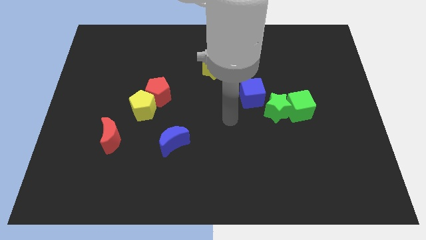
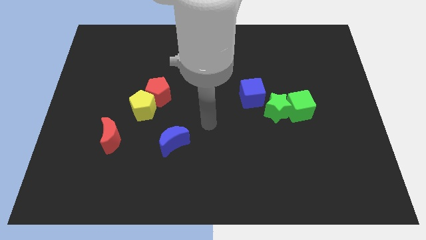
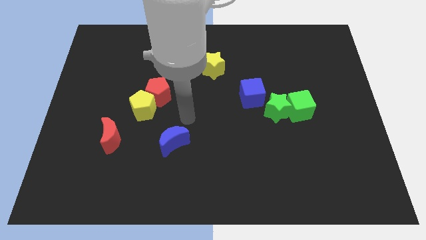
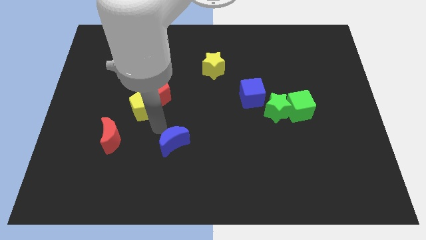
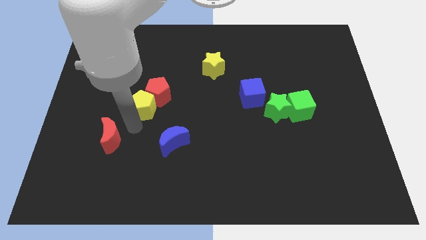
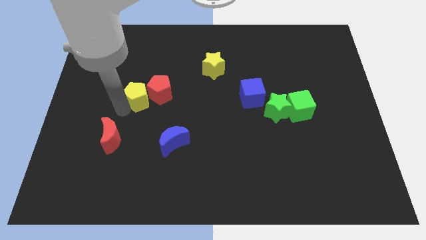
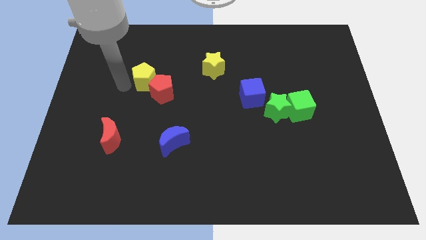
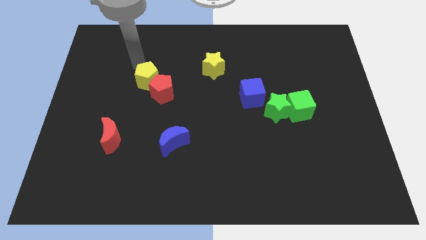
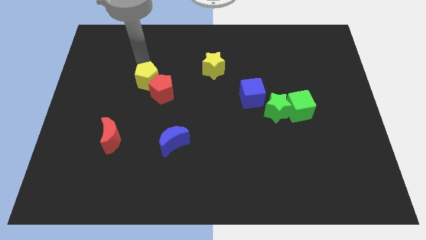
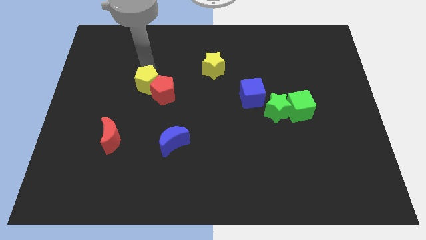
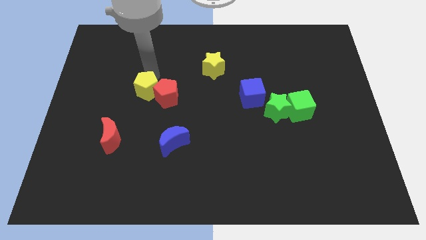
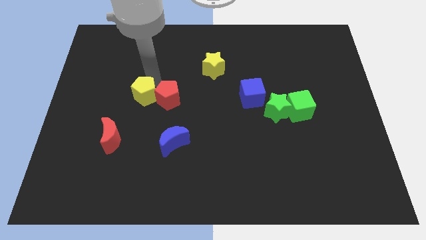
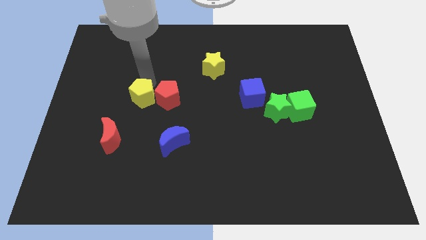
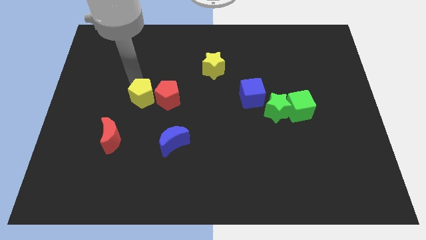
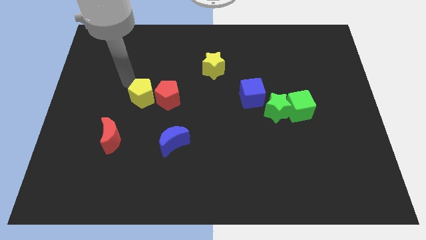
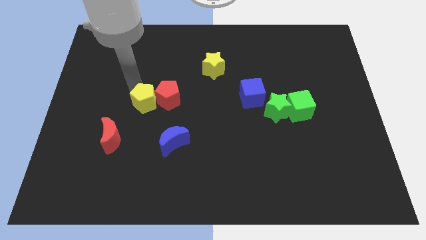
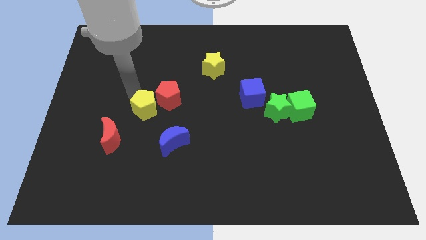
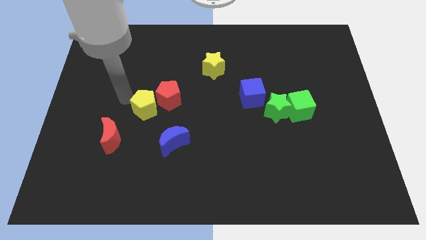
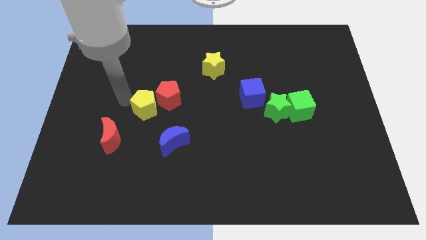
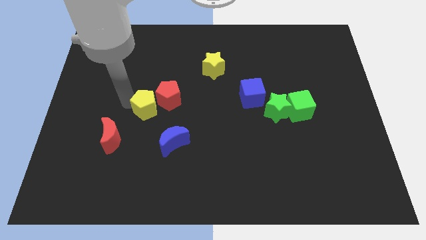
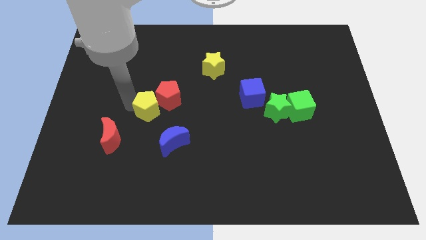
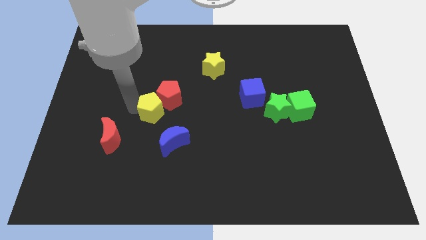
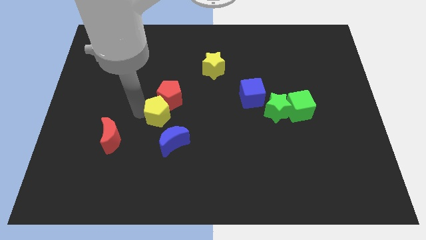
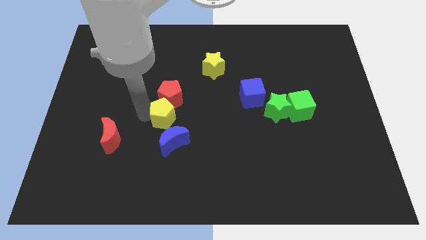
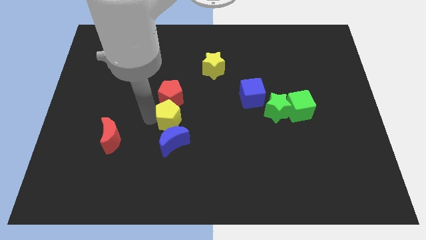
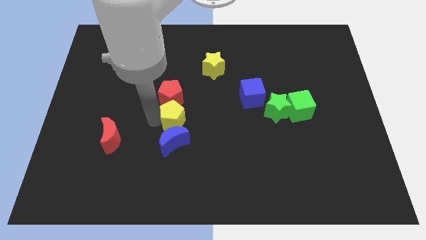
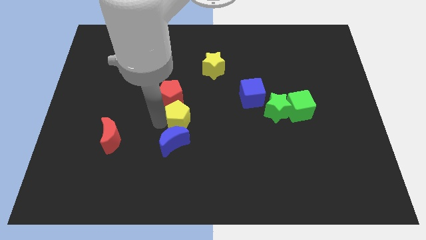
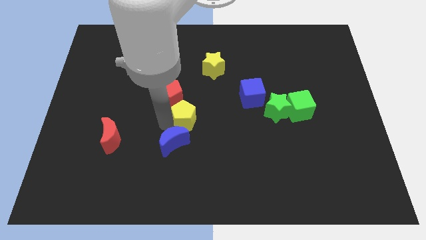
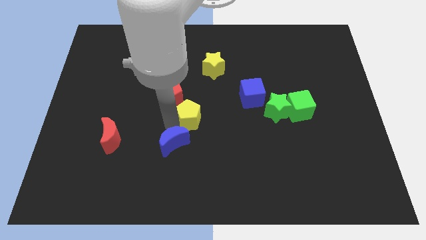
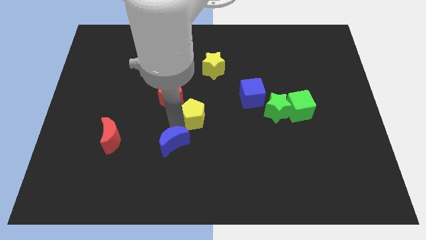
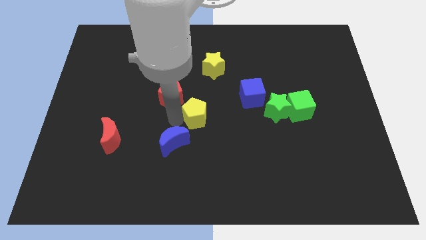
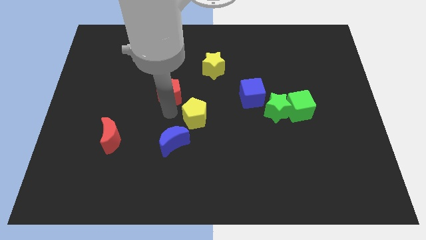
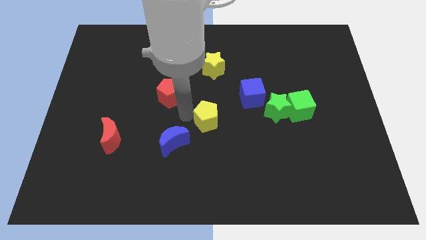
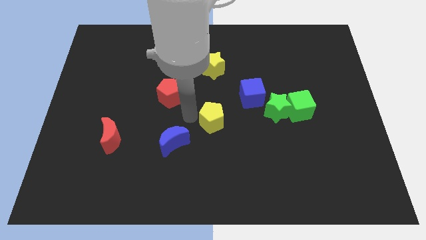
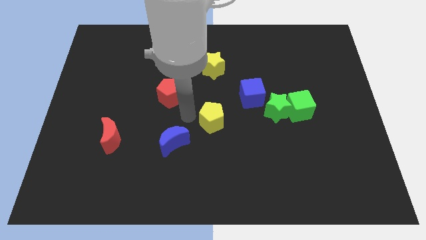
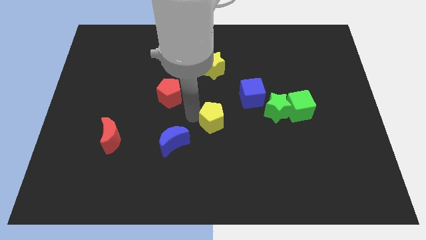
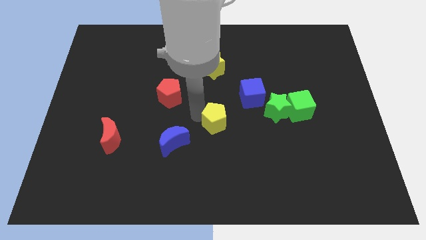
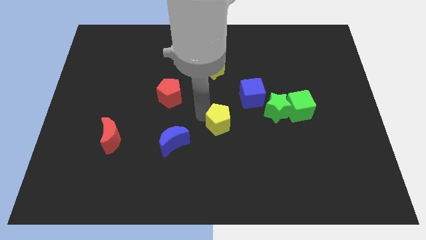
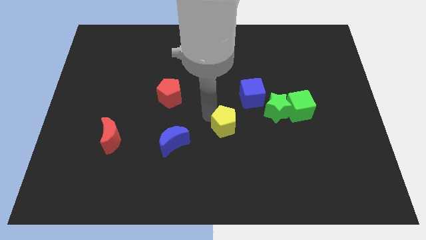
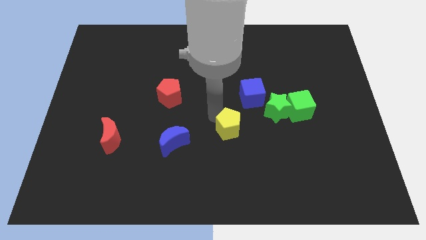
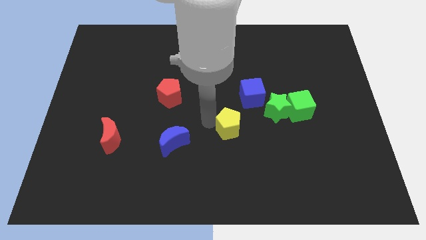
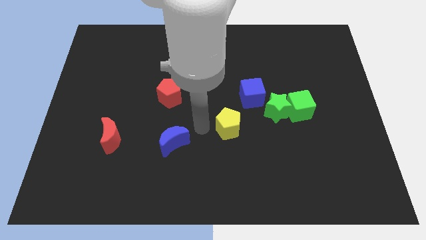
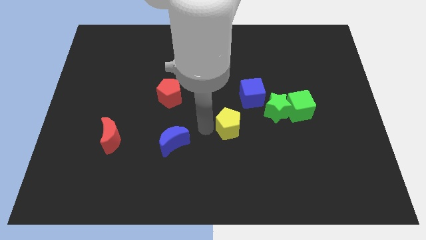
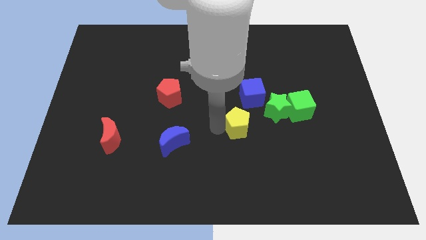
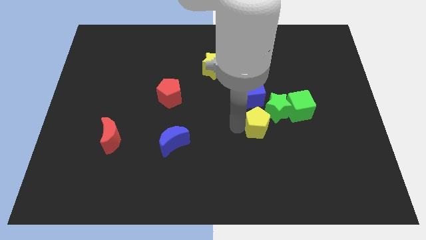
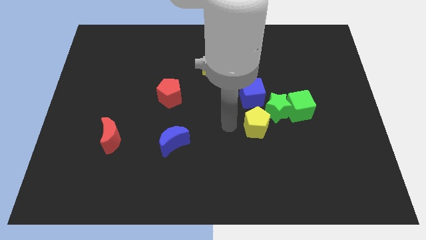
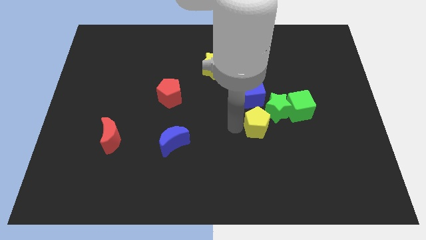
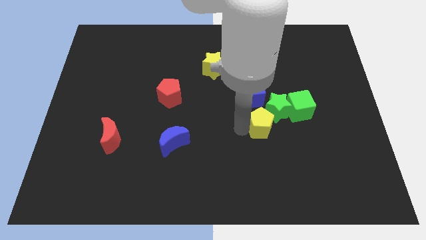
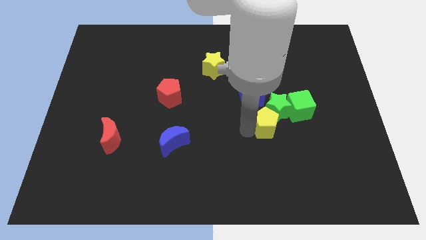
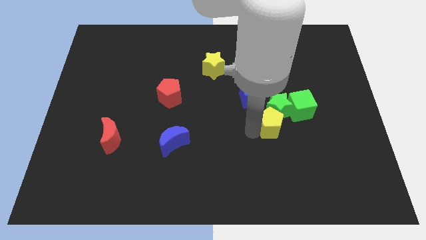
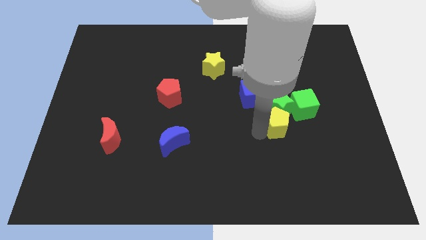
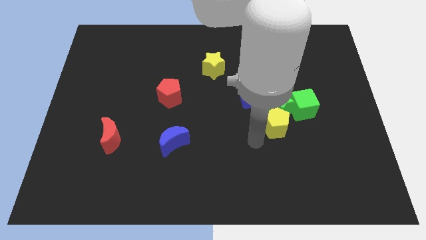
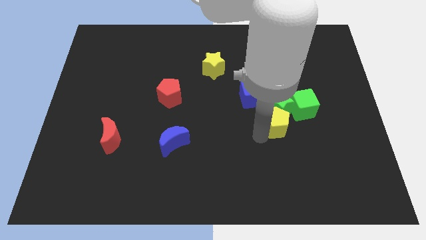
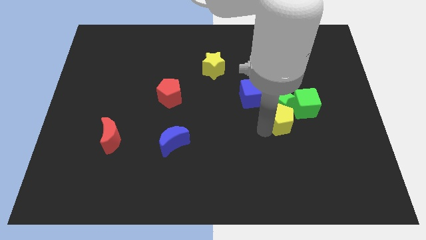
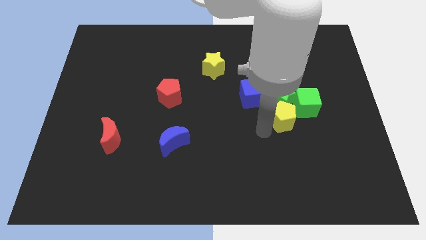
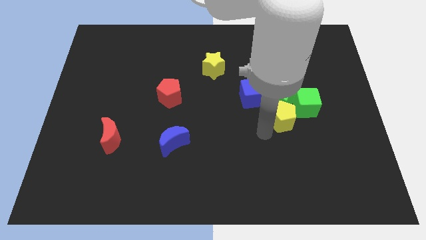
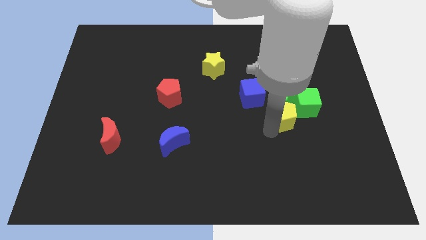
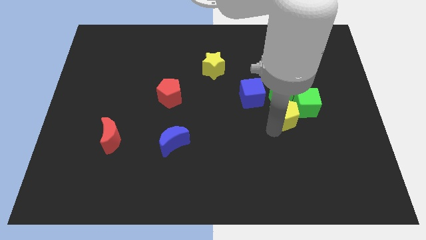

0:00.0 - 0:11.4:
put the yellow pentagon next to the green cube
